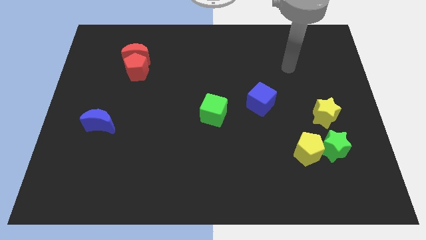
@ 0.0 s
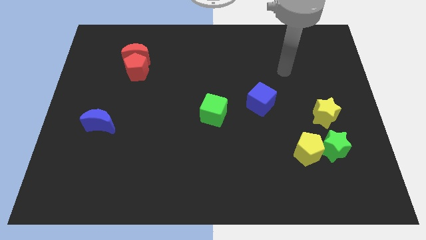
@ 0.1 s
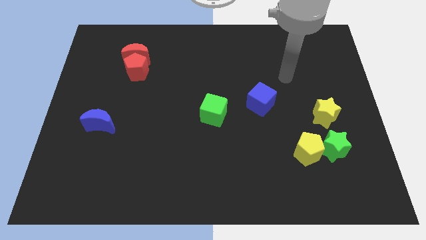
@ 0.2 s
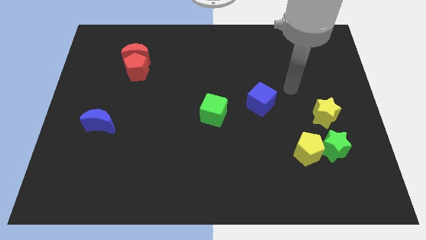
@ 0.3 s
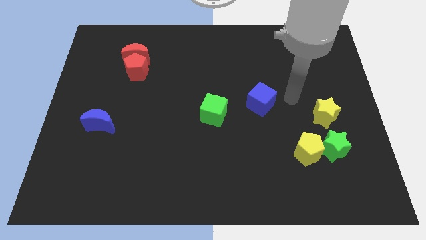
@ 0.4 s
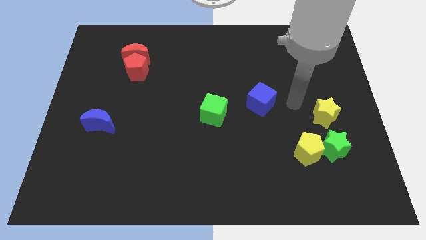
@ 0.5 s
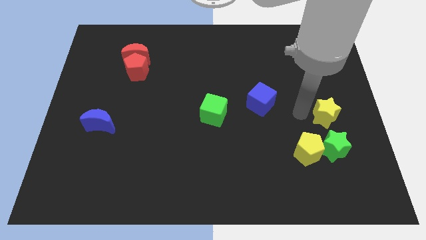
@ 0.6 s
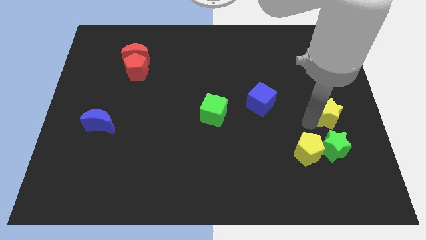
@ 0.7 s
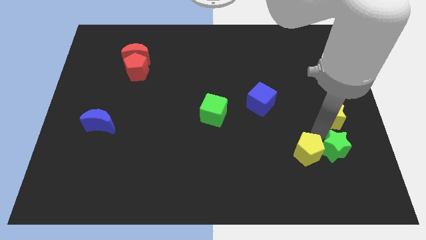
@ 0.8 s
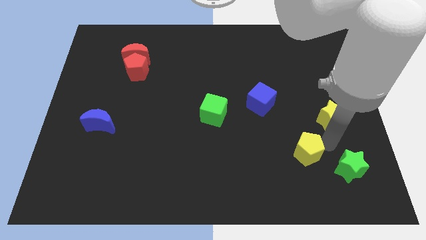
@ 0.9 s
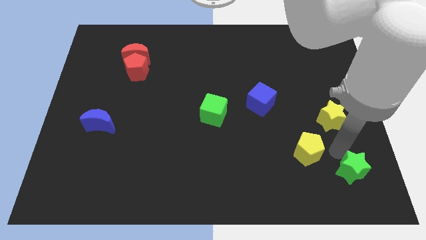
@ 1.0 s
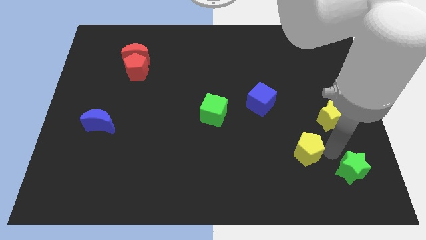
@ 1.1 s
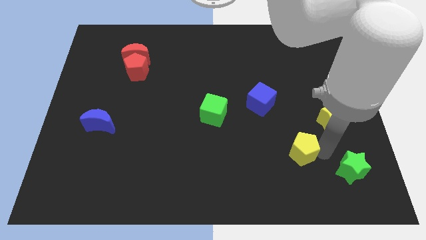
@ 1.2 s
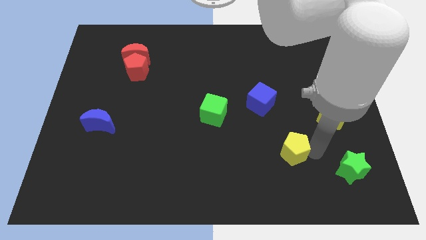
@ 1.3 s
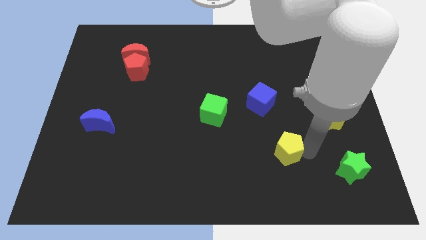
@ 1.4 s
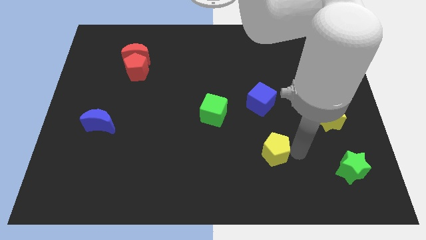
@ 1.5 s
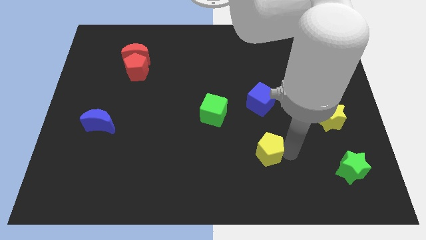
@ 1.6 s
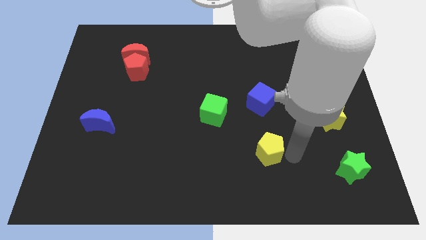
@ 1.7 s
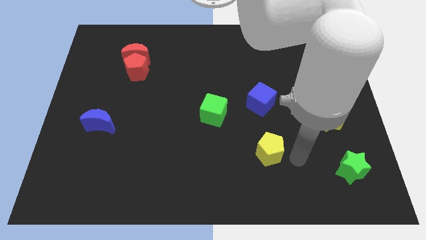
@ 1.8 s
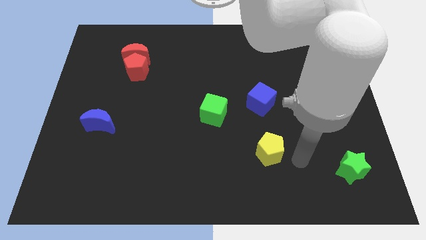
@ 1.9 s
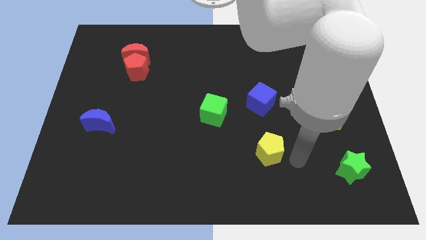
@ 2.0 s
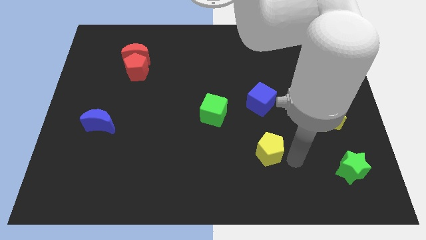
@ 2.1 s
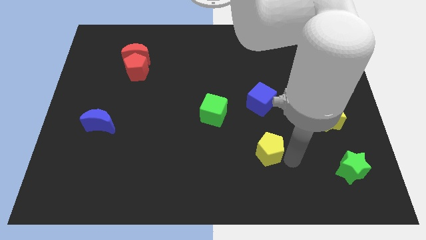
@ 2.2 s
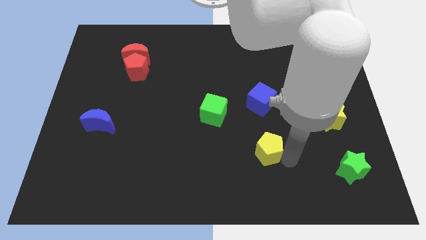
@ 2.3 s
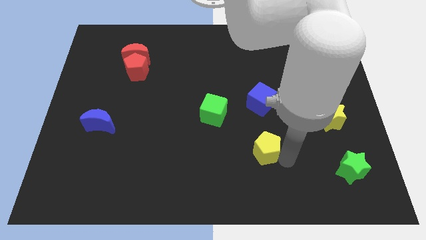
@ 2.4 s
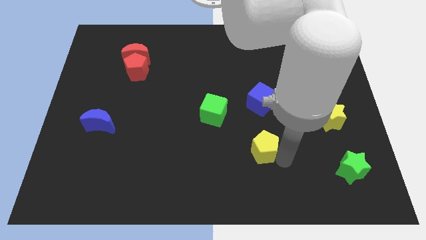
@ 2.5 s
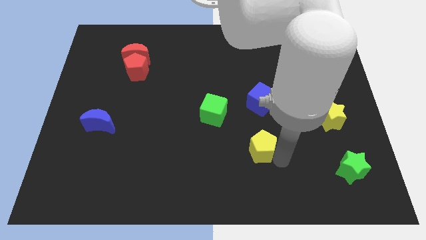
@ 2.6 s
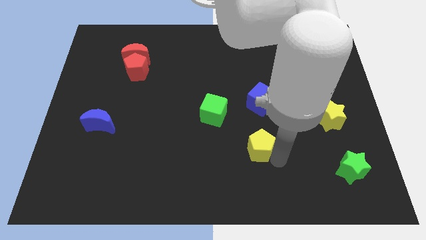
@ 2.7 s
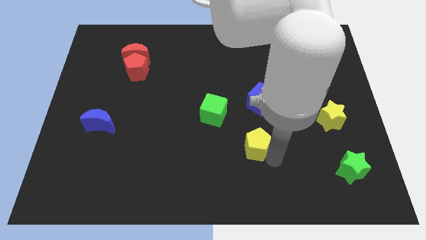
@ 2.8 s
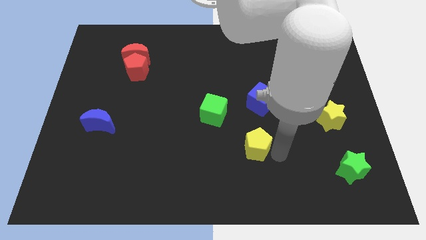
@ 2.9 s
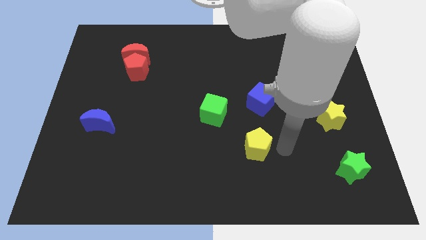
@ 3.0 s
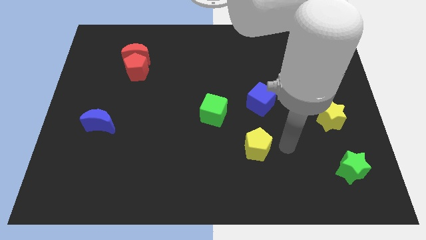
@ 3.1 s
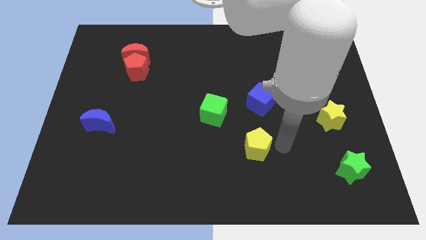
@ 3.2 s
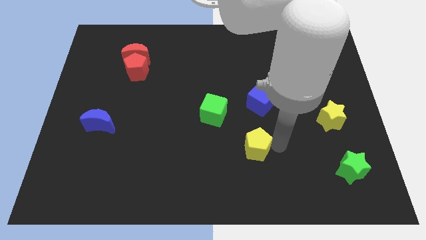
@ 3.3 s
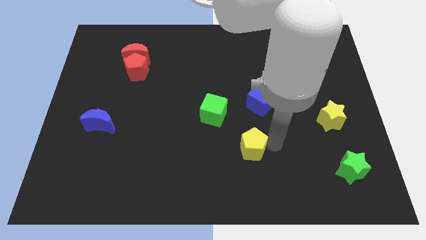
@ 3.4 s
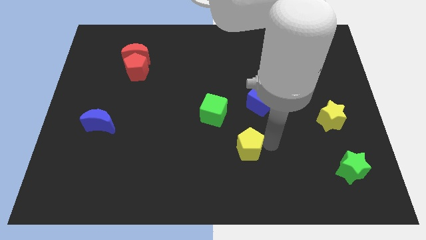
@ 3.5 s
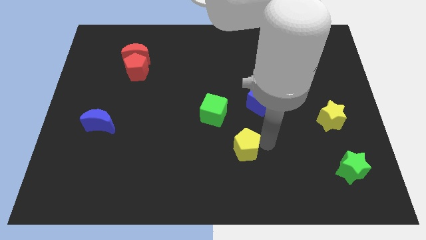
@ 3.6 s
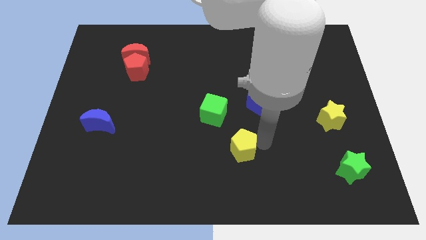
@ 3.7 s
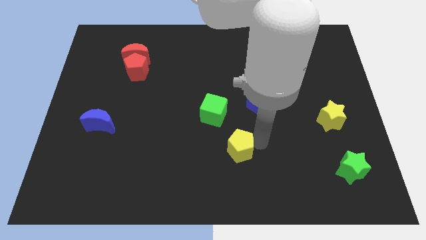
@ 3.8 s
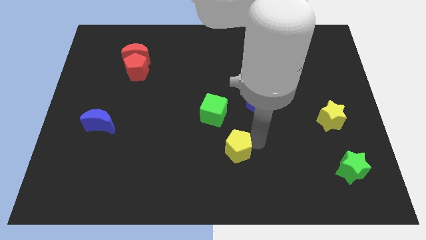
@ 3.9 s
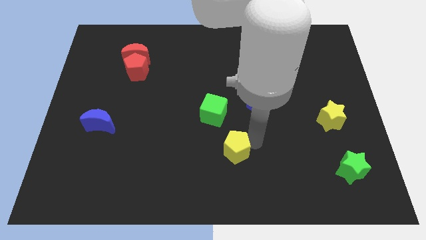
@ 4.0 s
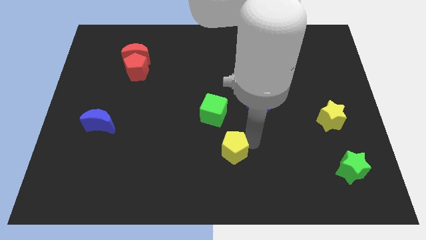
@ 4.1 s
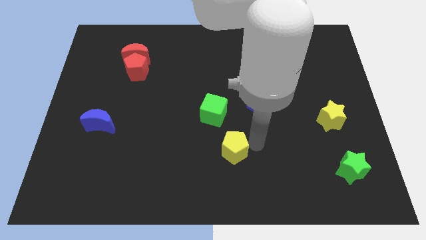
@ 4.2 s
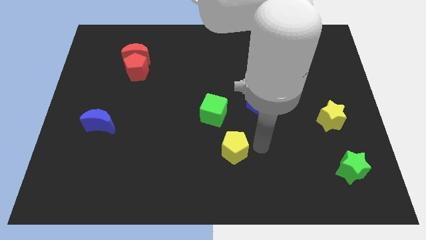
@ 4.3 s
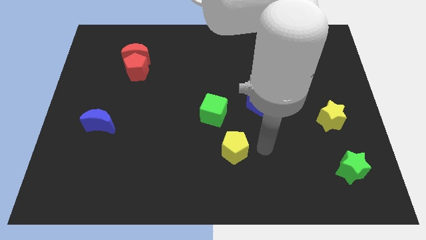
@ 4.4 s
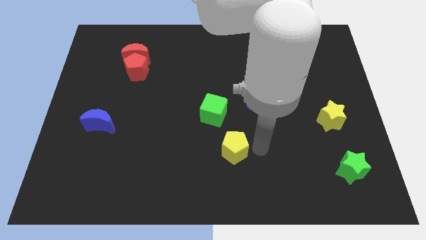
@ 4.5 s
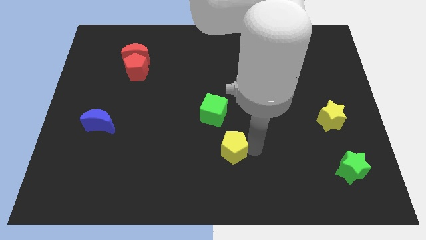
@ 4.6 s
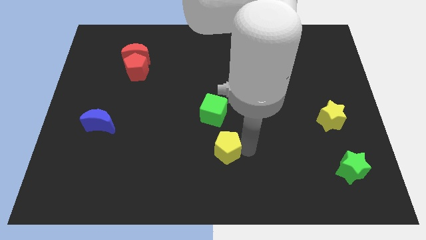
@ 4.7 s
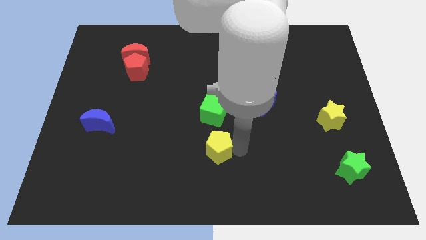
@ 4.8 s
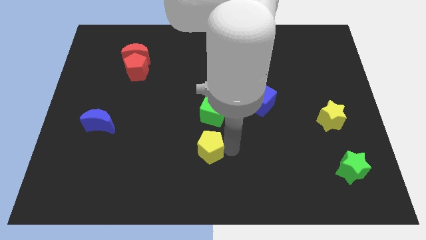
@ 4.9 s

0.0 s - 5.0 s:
move the yellow pentagon left

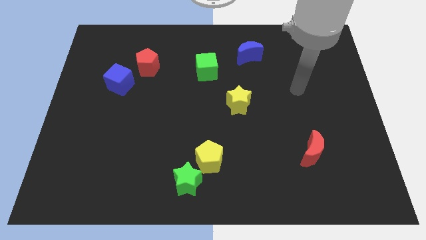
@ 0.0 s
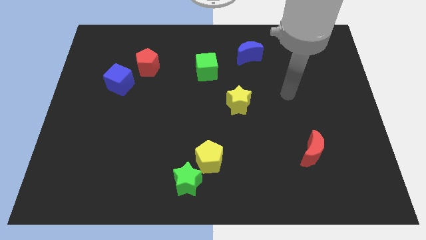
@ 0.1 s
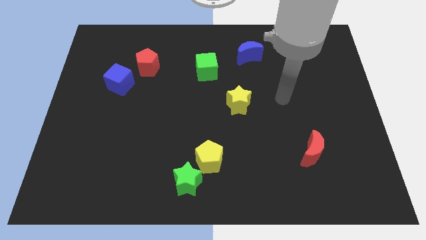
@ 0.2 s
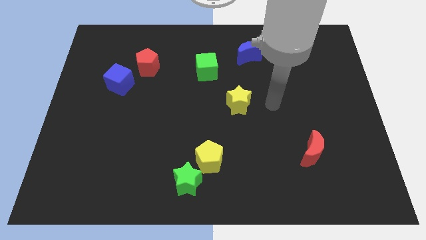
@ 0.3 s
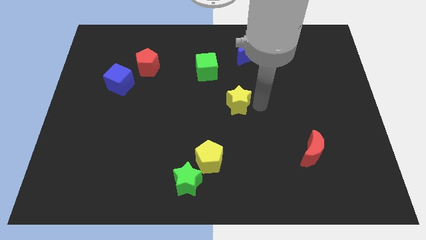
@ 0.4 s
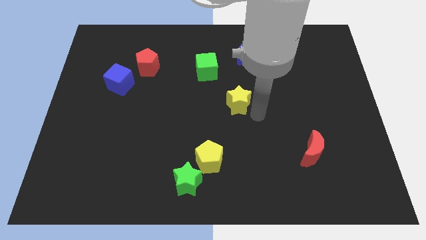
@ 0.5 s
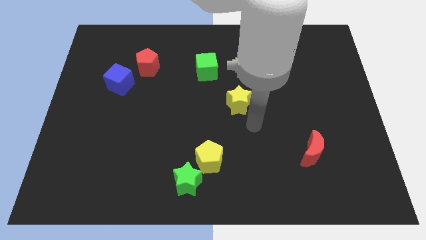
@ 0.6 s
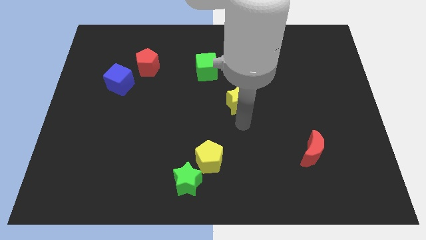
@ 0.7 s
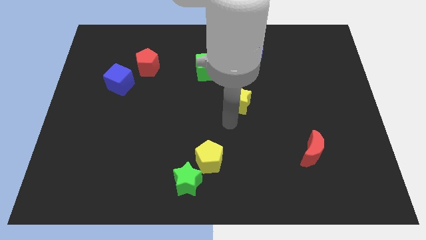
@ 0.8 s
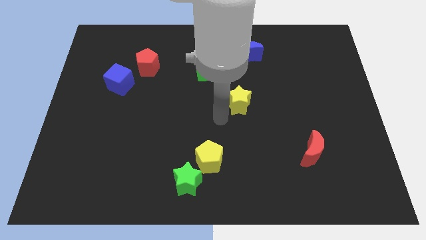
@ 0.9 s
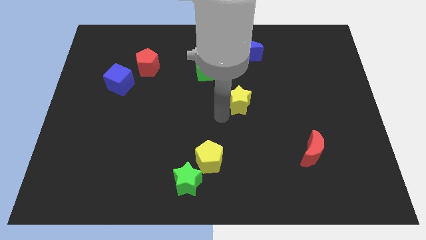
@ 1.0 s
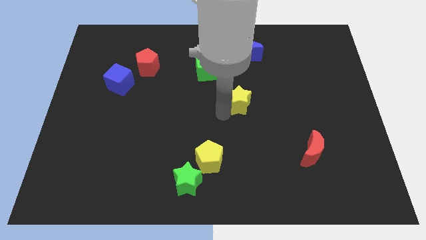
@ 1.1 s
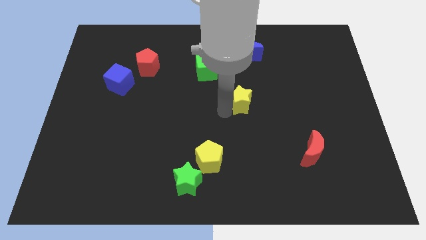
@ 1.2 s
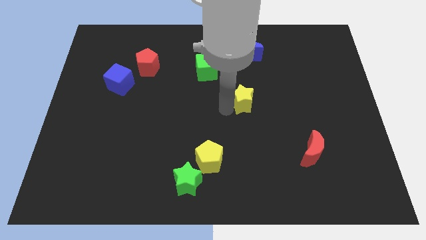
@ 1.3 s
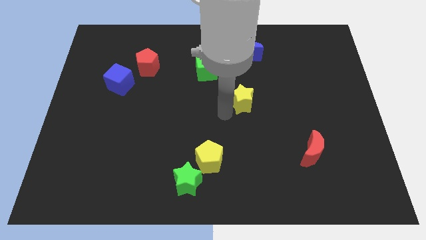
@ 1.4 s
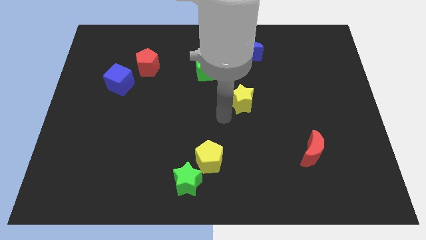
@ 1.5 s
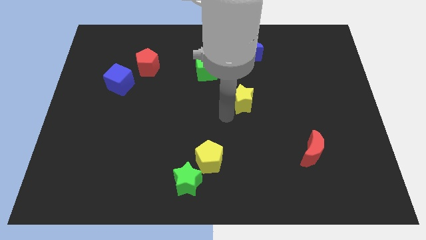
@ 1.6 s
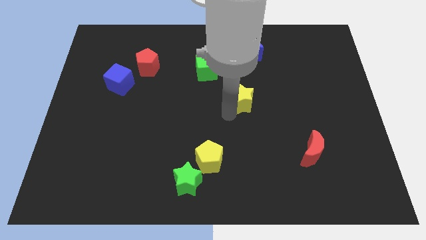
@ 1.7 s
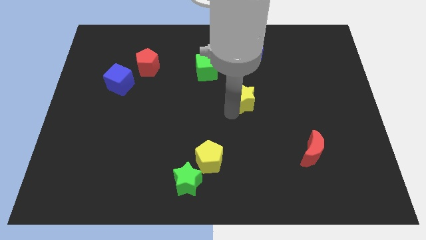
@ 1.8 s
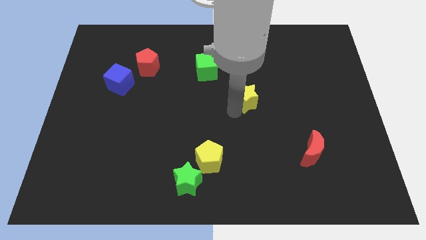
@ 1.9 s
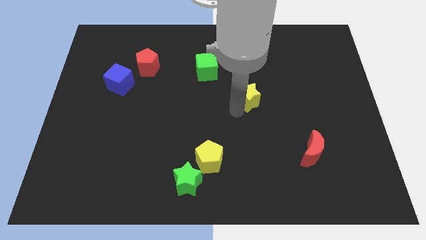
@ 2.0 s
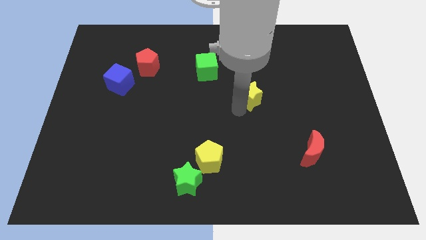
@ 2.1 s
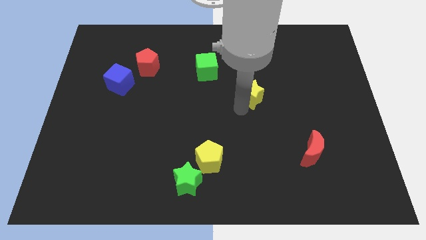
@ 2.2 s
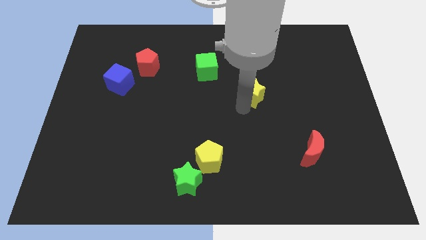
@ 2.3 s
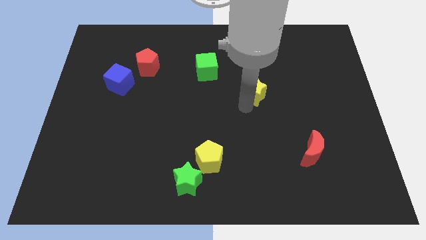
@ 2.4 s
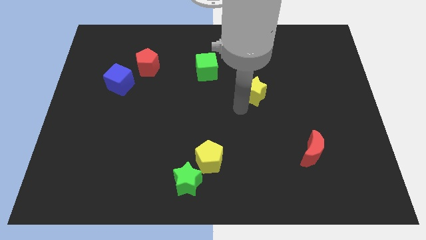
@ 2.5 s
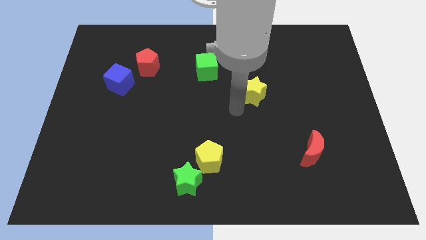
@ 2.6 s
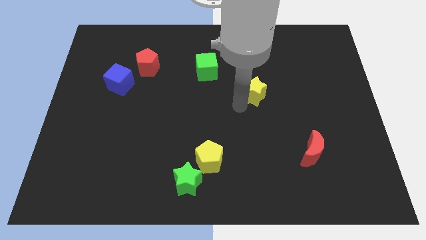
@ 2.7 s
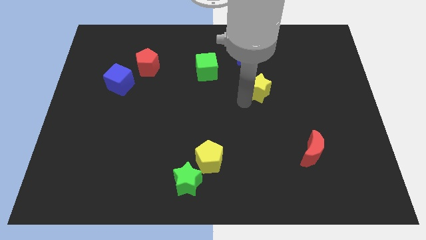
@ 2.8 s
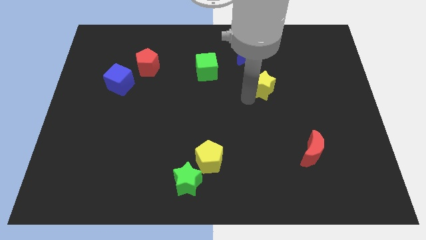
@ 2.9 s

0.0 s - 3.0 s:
push the yellow star upwards and to the right a little bit
